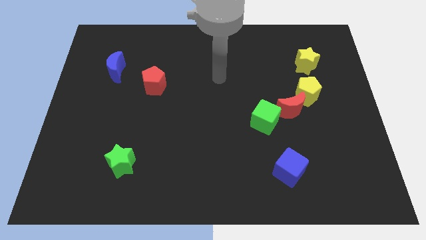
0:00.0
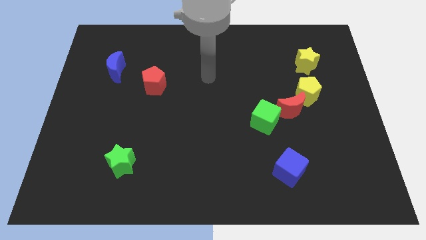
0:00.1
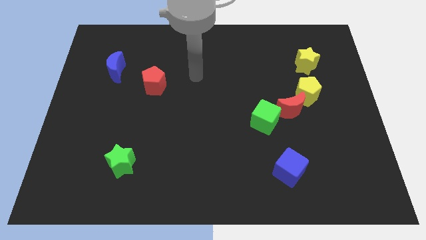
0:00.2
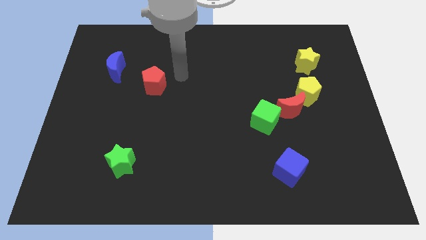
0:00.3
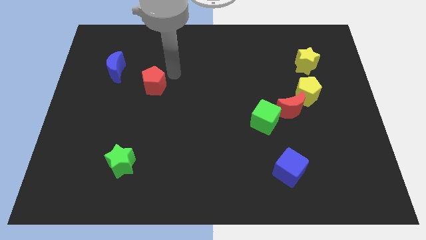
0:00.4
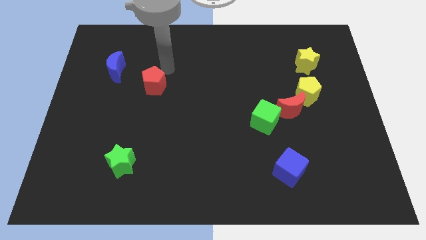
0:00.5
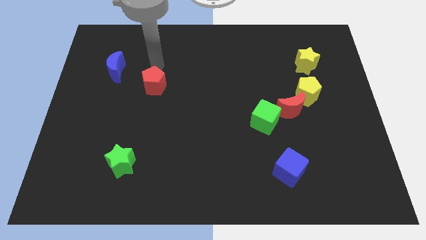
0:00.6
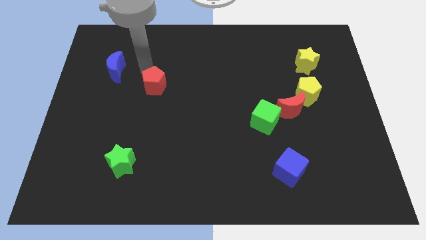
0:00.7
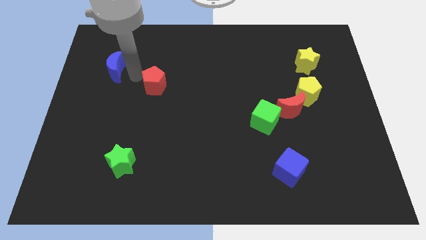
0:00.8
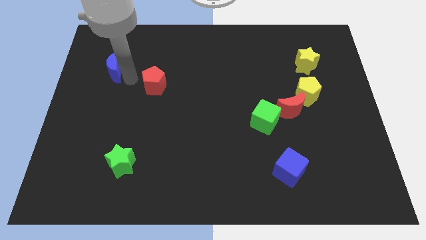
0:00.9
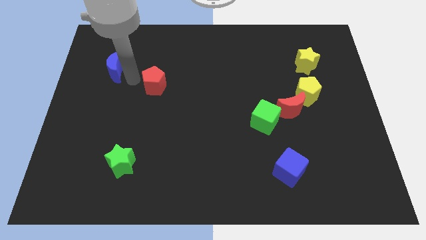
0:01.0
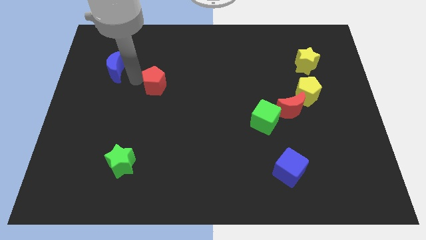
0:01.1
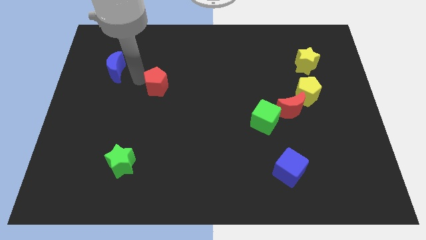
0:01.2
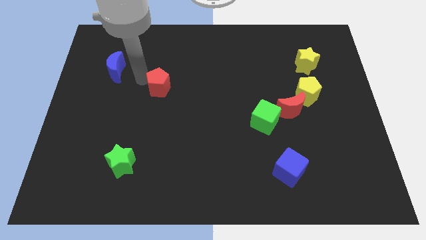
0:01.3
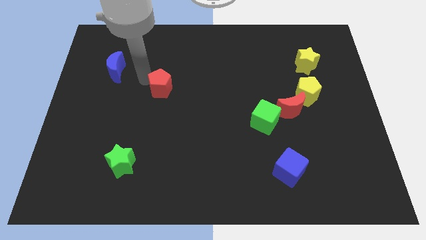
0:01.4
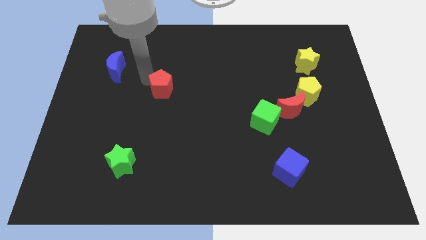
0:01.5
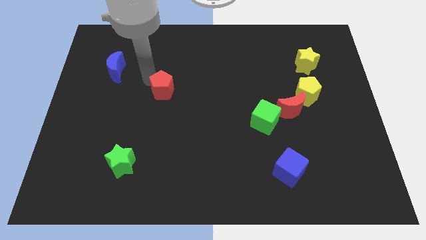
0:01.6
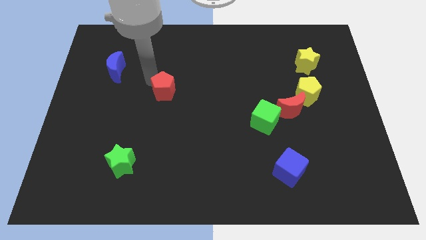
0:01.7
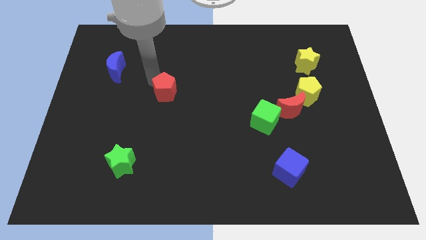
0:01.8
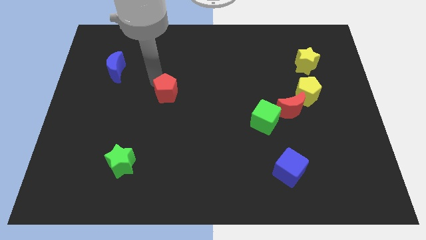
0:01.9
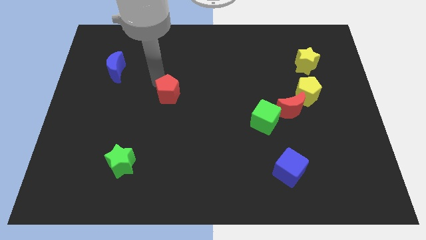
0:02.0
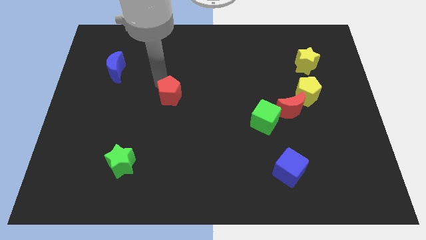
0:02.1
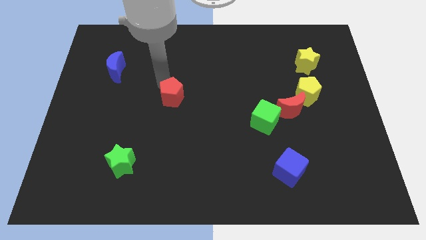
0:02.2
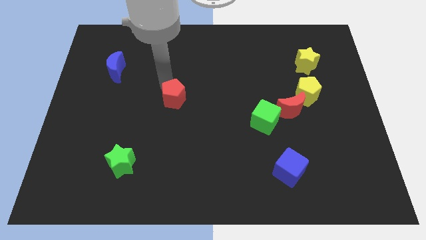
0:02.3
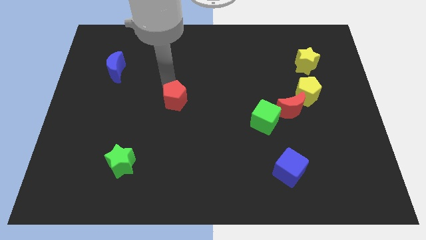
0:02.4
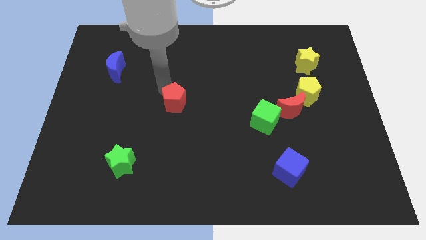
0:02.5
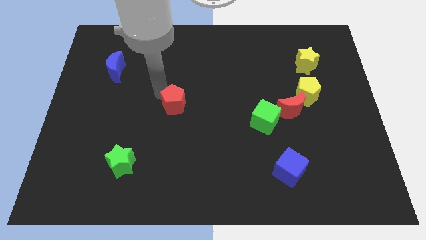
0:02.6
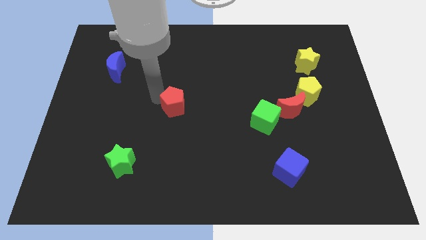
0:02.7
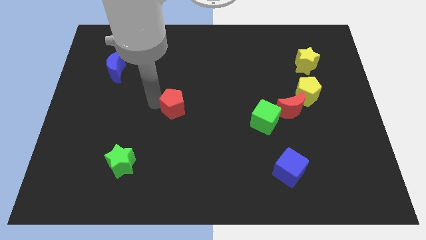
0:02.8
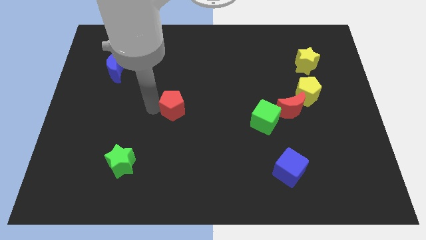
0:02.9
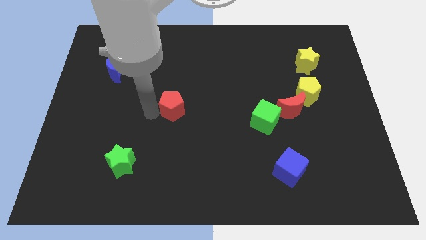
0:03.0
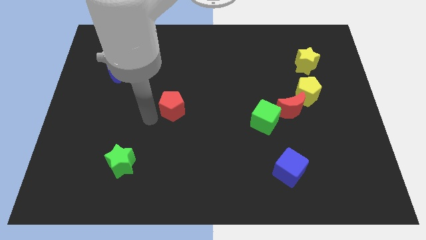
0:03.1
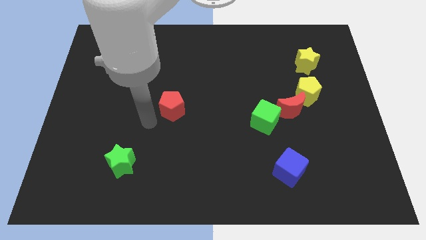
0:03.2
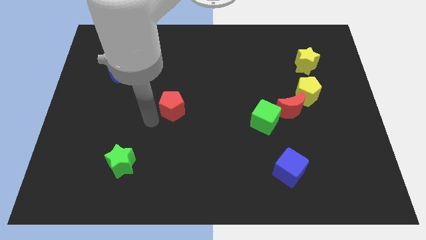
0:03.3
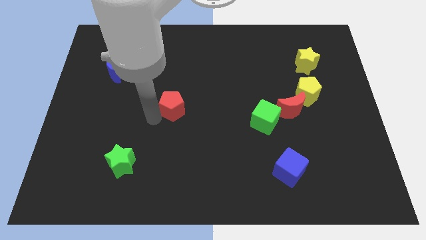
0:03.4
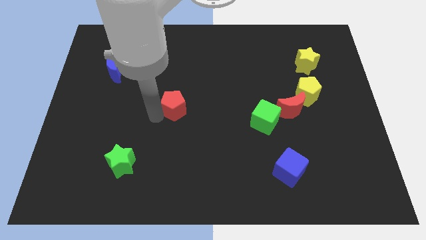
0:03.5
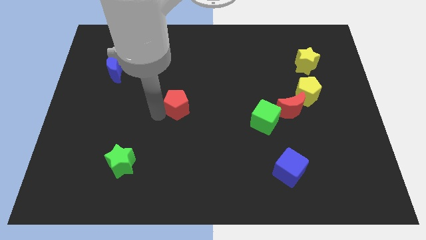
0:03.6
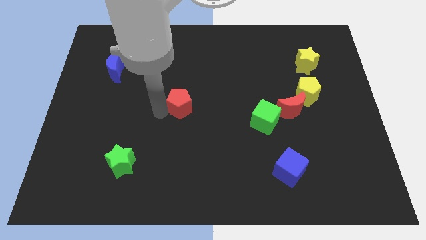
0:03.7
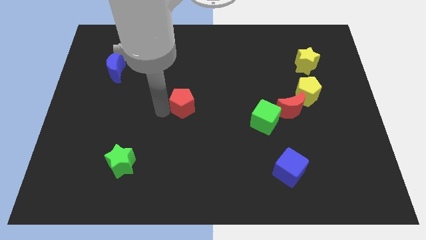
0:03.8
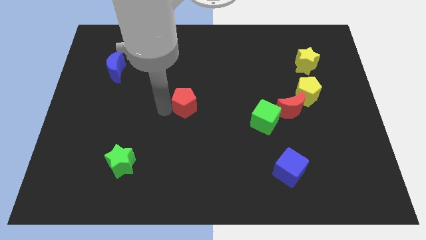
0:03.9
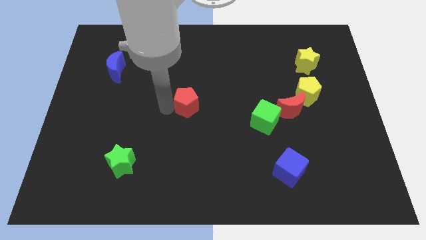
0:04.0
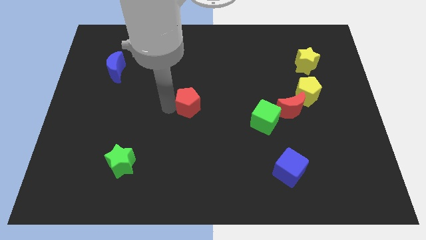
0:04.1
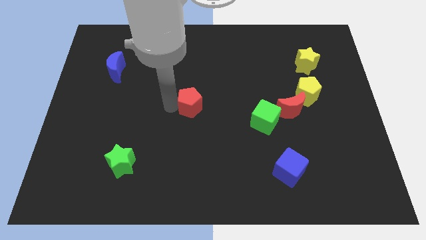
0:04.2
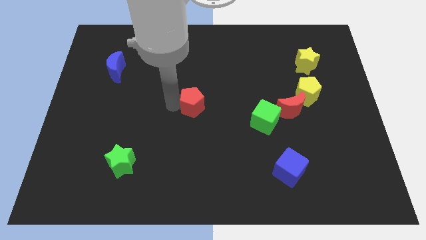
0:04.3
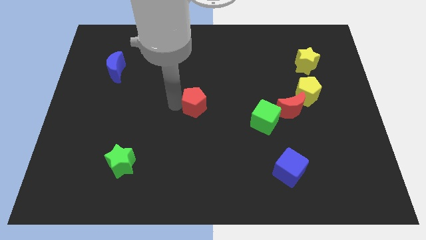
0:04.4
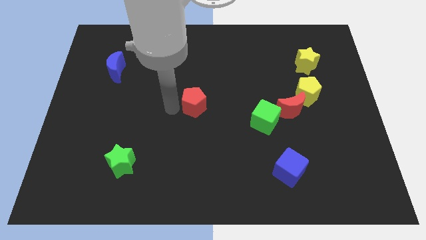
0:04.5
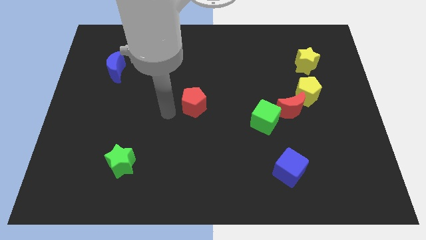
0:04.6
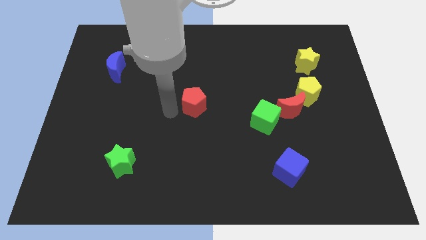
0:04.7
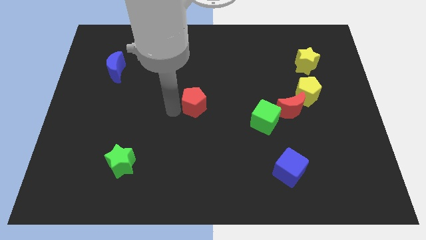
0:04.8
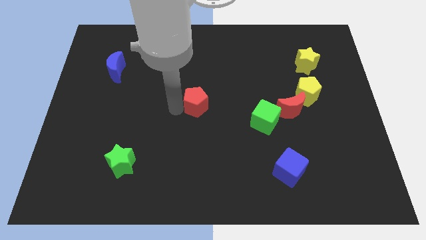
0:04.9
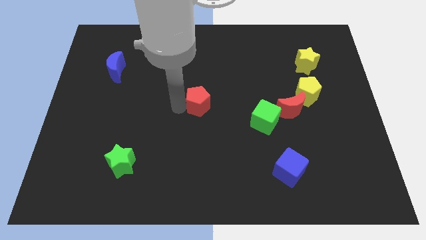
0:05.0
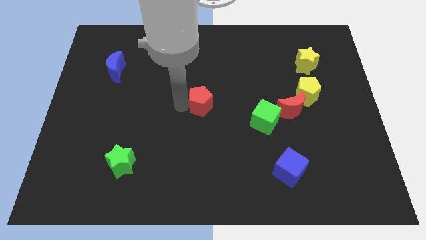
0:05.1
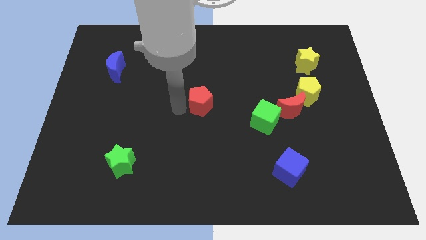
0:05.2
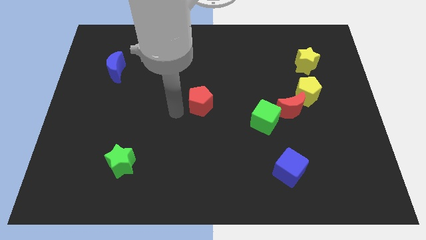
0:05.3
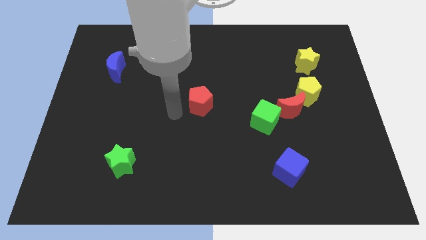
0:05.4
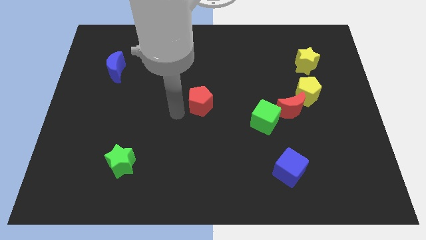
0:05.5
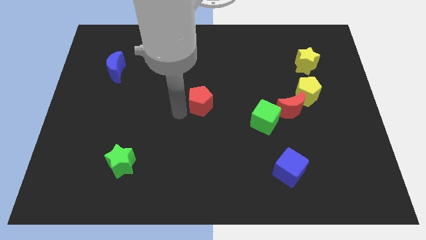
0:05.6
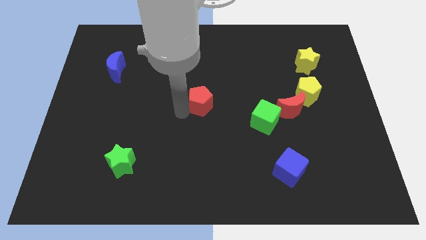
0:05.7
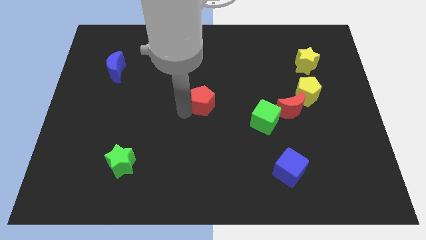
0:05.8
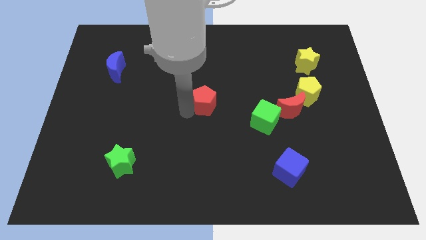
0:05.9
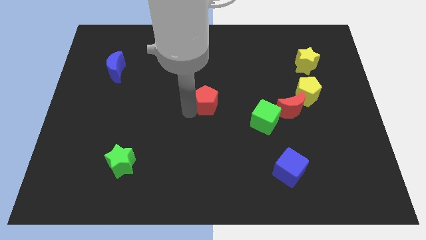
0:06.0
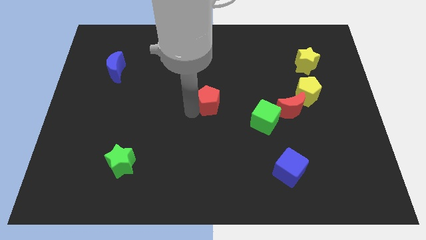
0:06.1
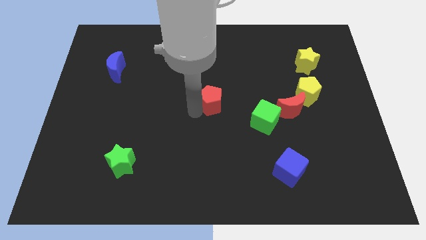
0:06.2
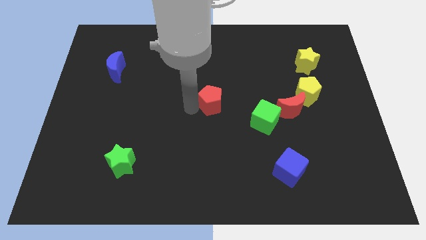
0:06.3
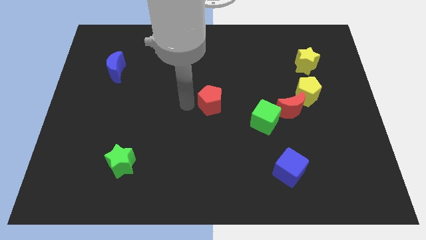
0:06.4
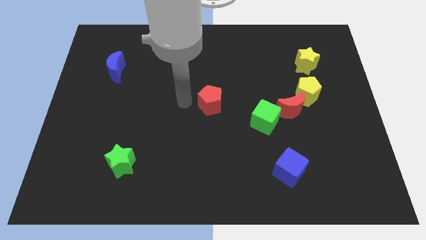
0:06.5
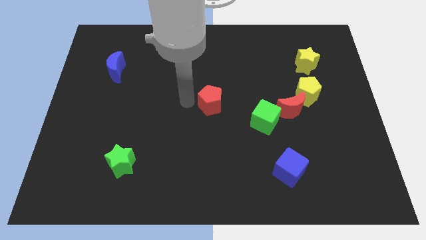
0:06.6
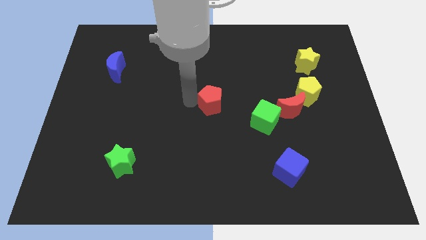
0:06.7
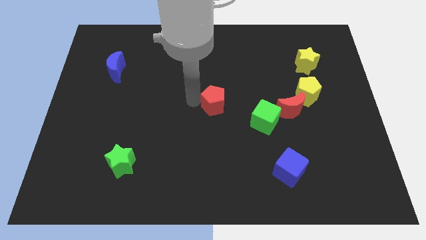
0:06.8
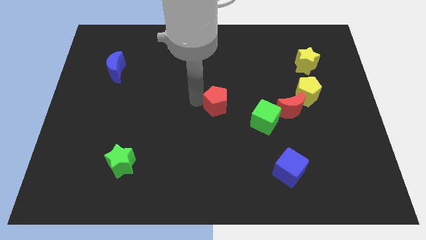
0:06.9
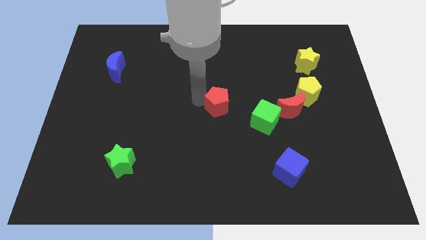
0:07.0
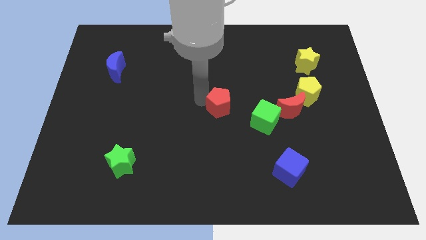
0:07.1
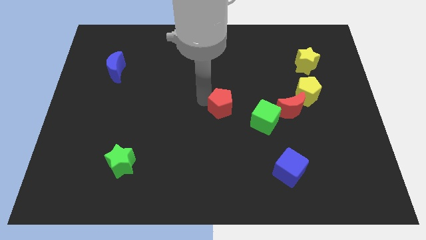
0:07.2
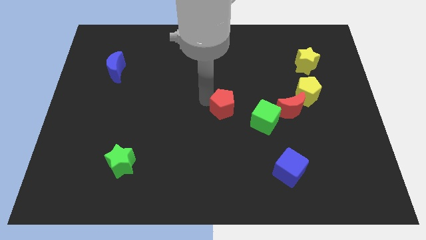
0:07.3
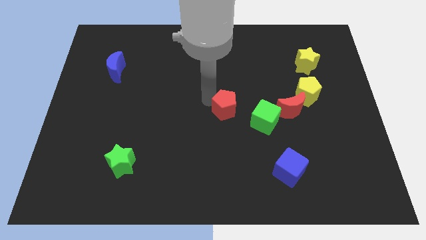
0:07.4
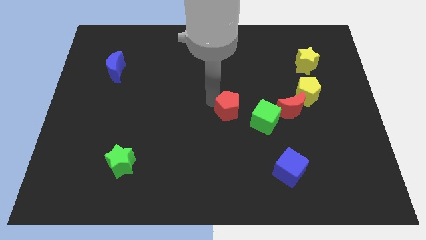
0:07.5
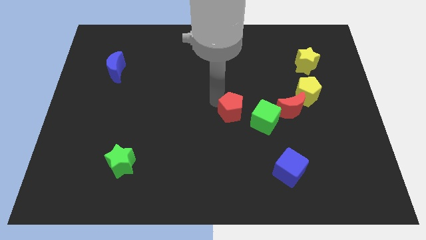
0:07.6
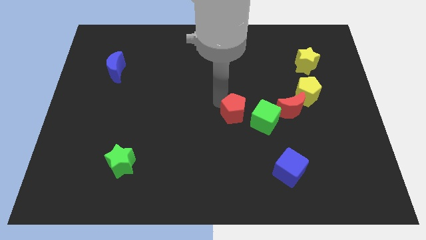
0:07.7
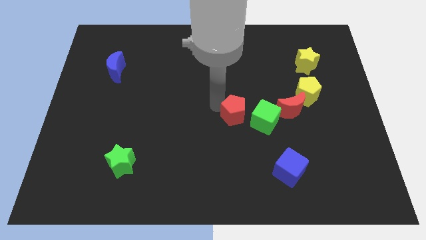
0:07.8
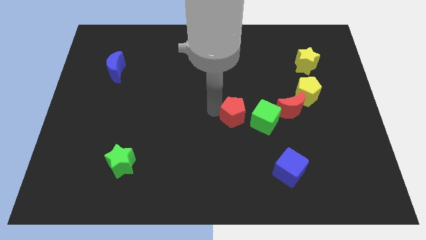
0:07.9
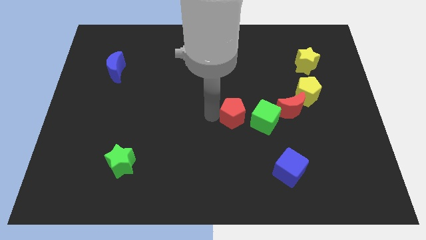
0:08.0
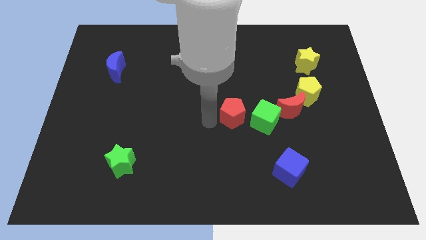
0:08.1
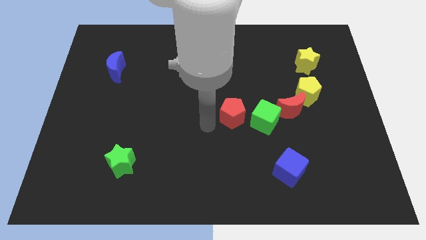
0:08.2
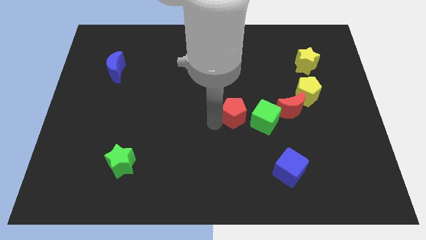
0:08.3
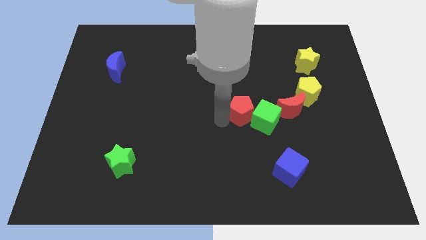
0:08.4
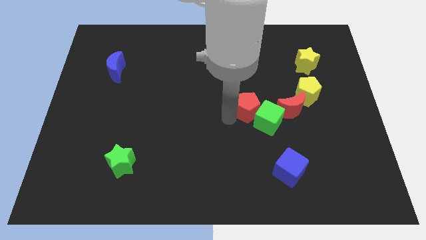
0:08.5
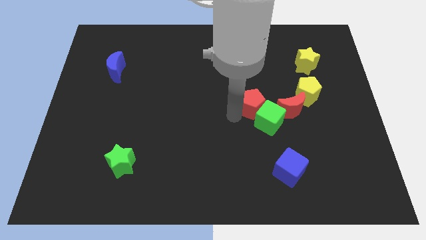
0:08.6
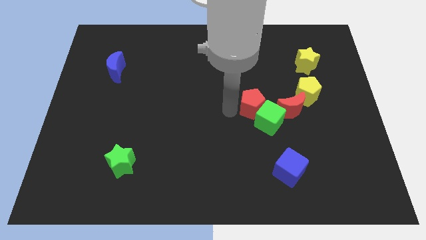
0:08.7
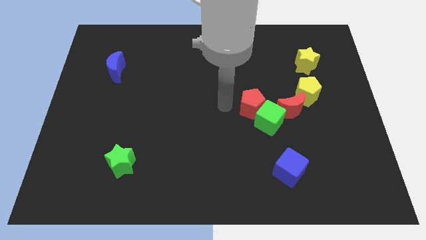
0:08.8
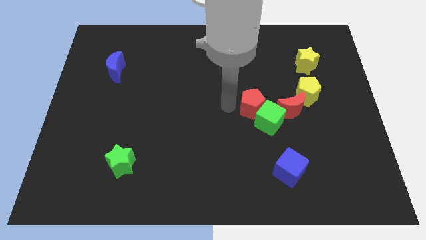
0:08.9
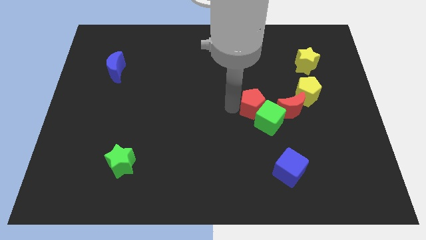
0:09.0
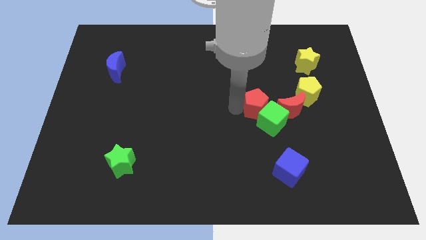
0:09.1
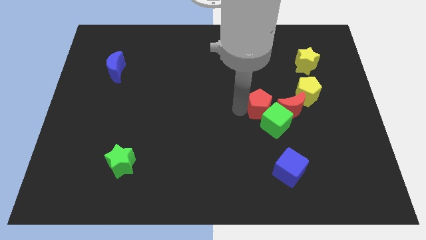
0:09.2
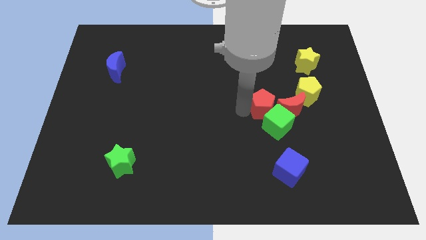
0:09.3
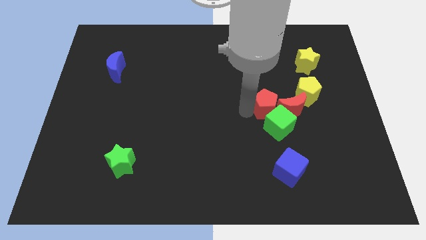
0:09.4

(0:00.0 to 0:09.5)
put the red pentagon next to the red moon
